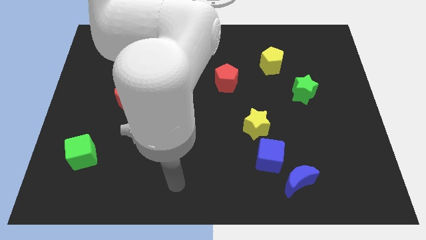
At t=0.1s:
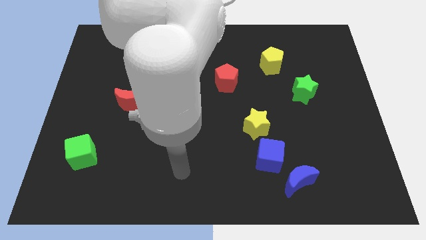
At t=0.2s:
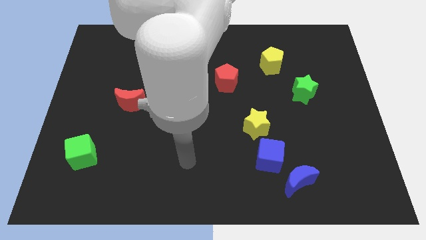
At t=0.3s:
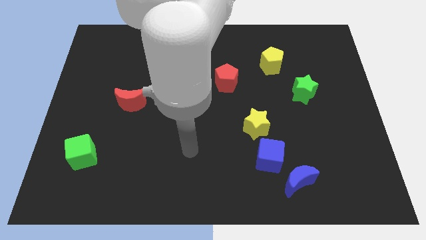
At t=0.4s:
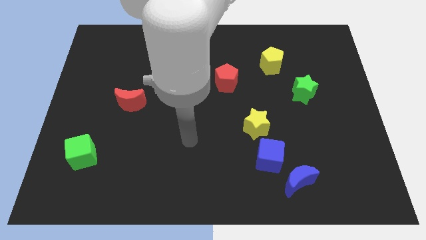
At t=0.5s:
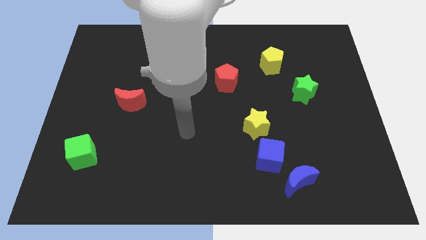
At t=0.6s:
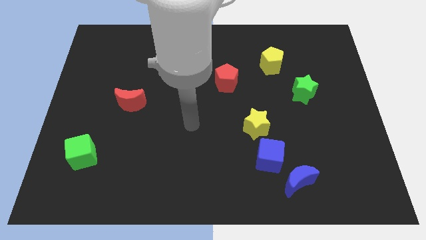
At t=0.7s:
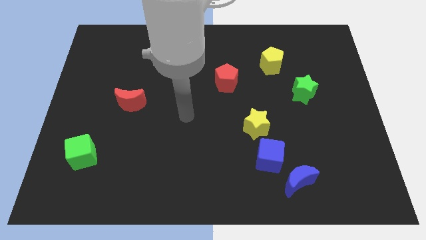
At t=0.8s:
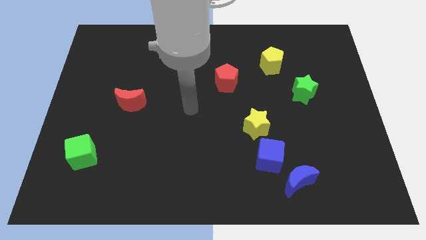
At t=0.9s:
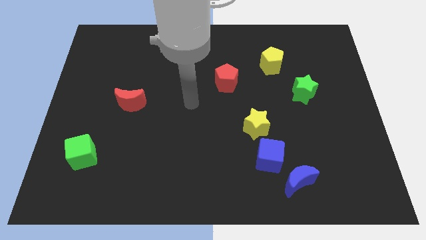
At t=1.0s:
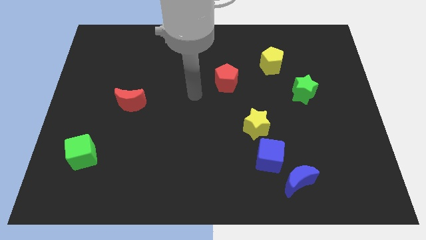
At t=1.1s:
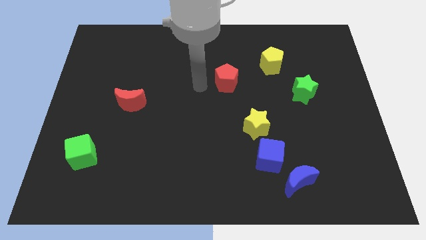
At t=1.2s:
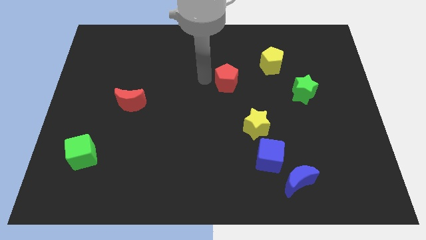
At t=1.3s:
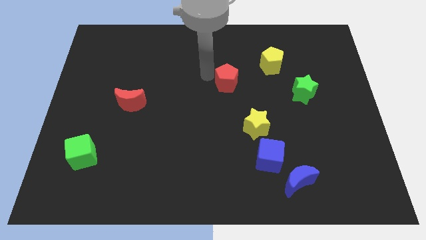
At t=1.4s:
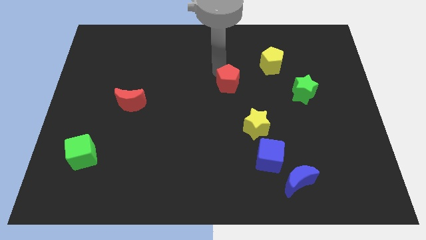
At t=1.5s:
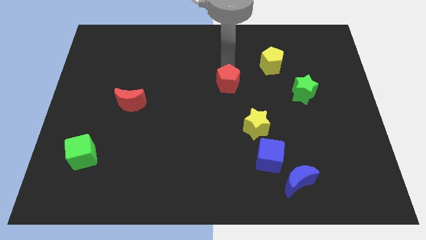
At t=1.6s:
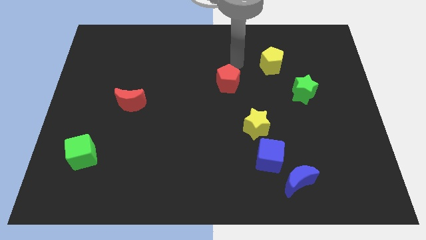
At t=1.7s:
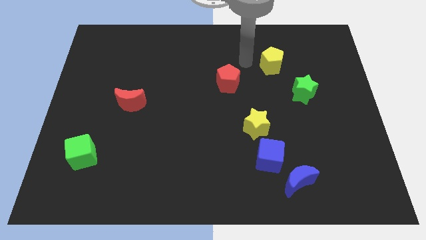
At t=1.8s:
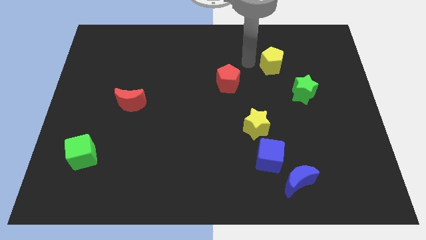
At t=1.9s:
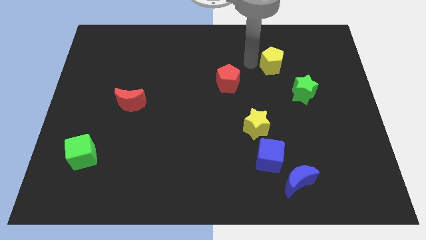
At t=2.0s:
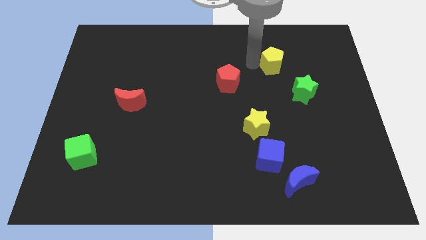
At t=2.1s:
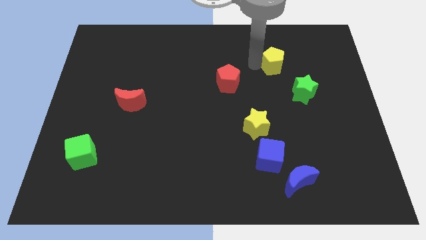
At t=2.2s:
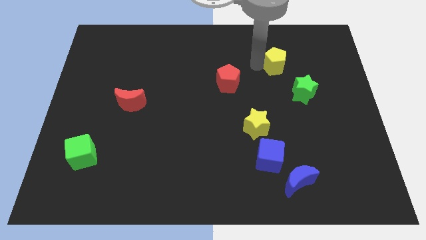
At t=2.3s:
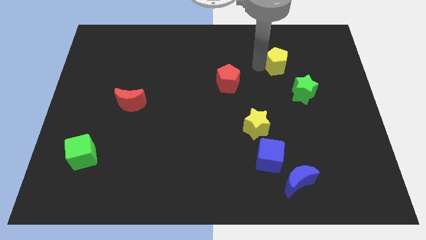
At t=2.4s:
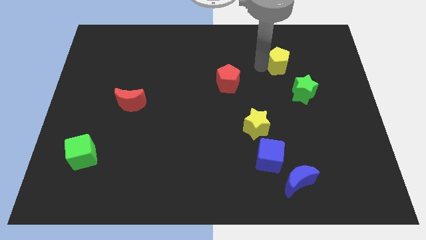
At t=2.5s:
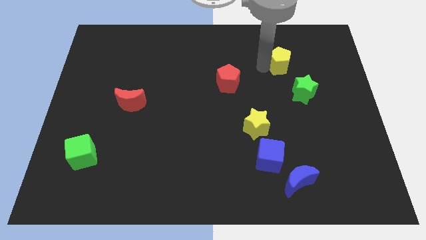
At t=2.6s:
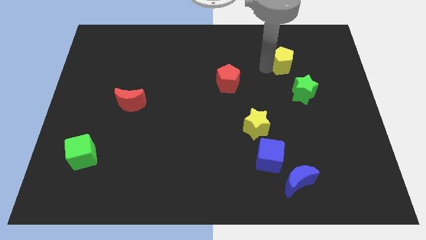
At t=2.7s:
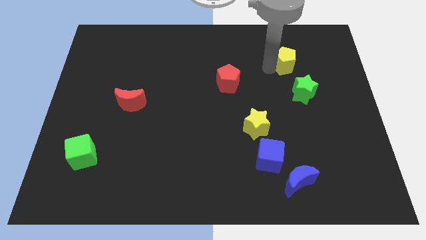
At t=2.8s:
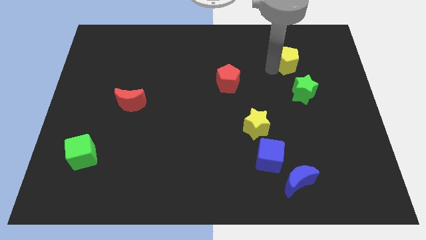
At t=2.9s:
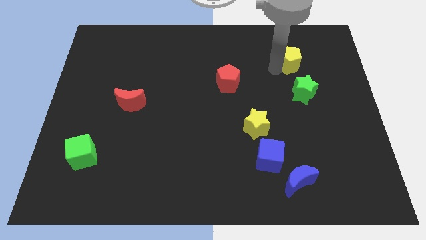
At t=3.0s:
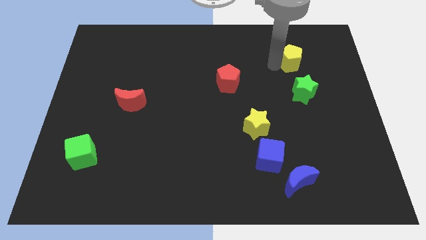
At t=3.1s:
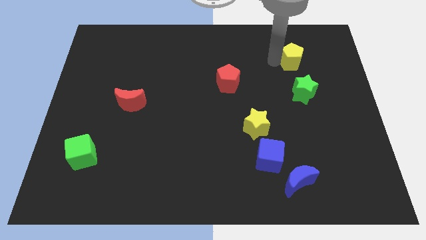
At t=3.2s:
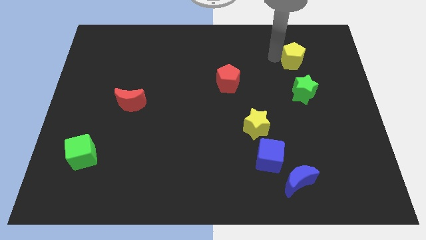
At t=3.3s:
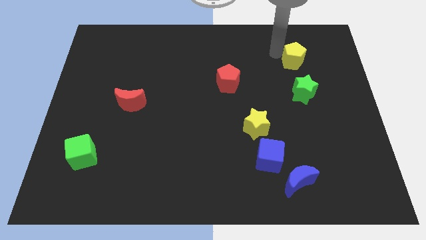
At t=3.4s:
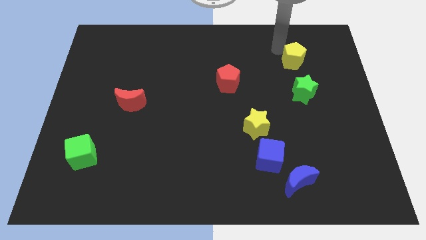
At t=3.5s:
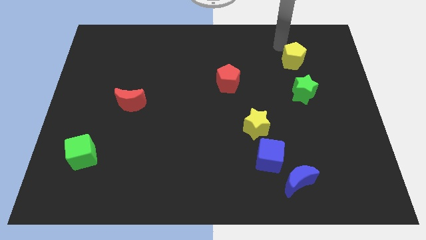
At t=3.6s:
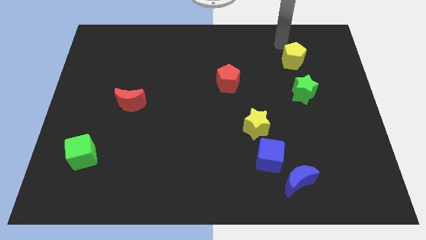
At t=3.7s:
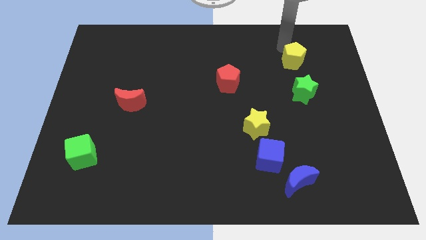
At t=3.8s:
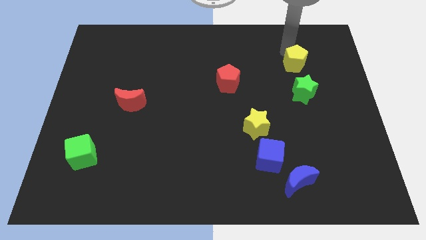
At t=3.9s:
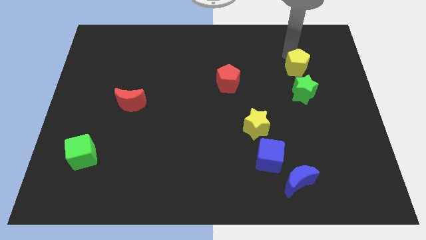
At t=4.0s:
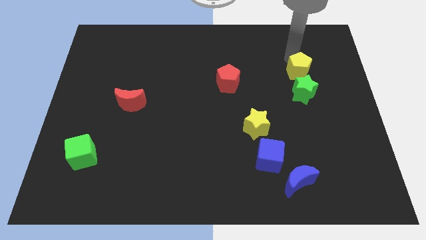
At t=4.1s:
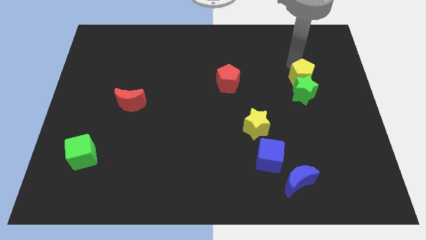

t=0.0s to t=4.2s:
move the yellow pentagon somewhat down and then right

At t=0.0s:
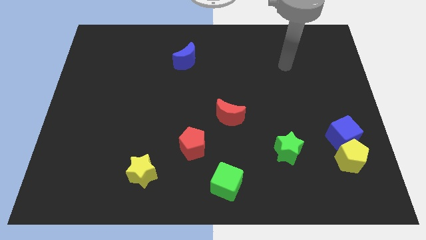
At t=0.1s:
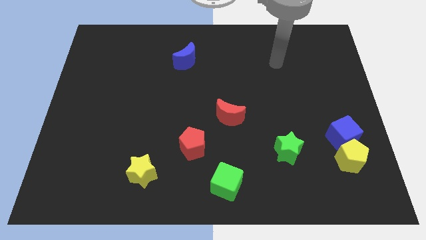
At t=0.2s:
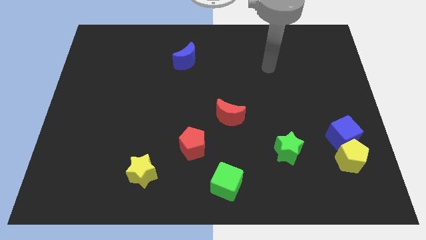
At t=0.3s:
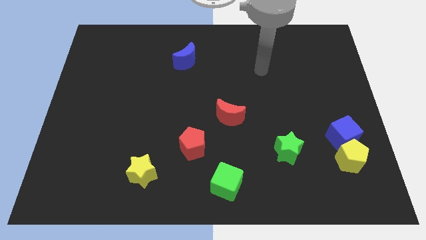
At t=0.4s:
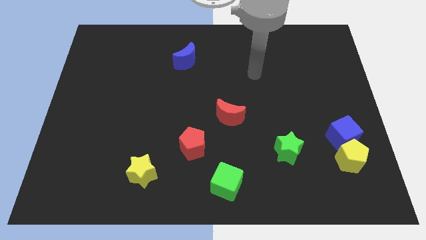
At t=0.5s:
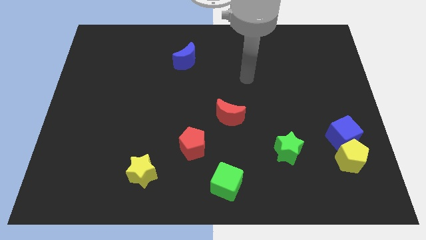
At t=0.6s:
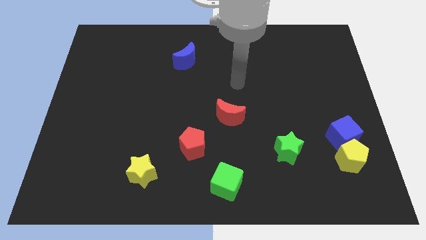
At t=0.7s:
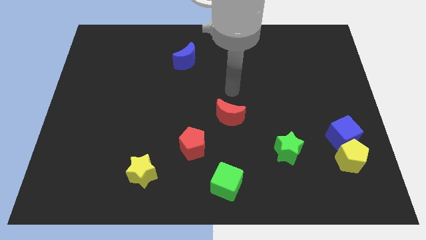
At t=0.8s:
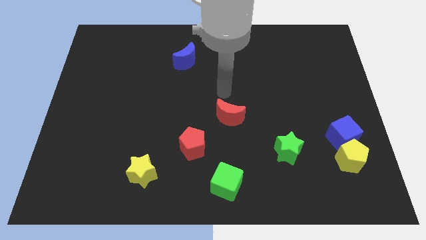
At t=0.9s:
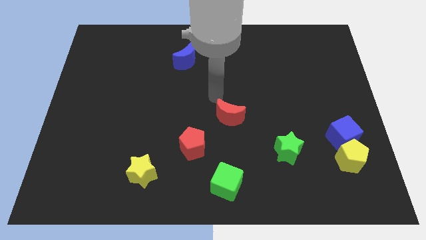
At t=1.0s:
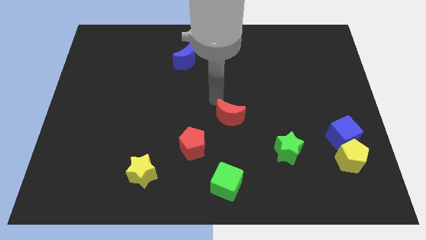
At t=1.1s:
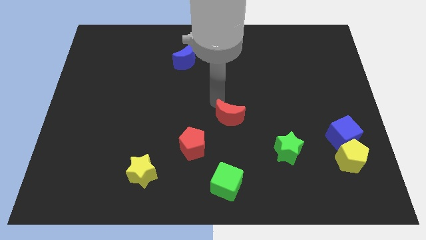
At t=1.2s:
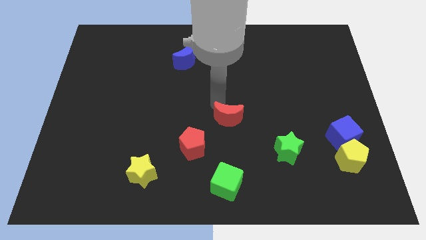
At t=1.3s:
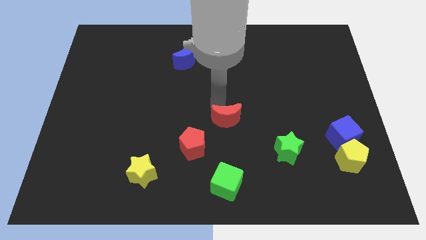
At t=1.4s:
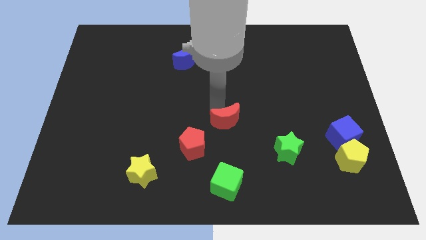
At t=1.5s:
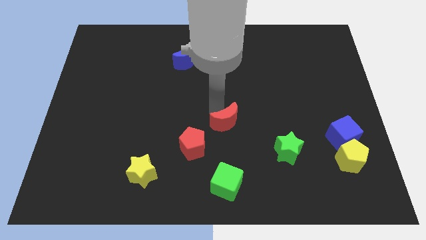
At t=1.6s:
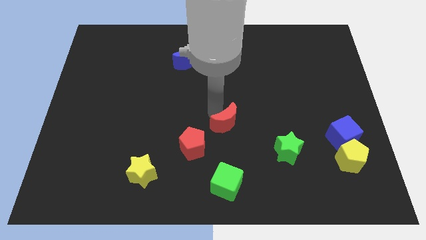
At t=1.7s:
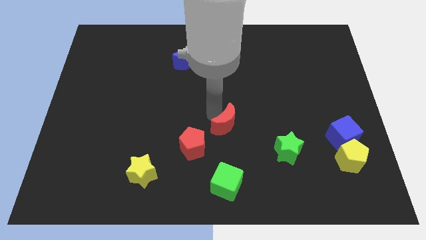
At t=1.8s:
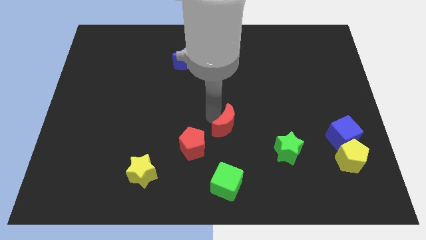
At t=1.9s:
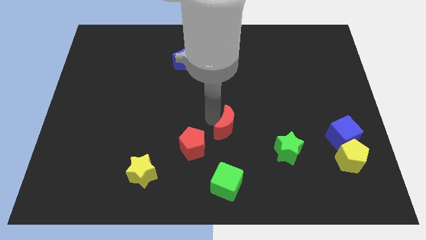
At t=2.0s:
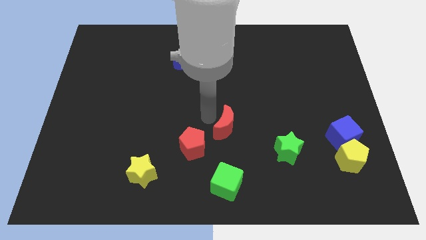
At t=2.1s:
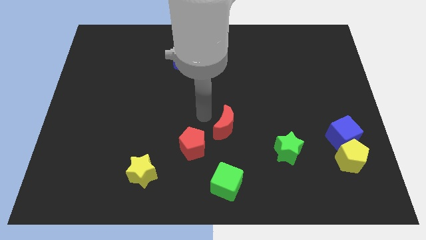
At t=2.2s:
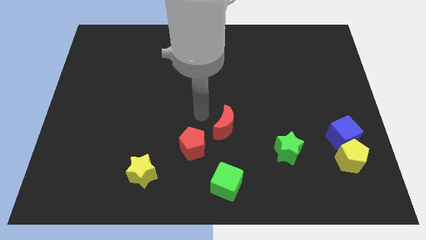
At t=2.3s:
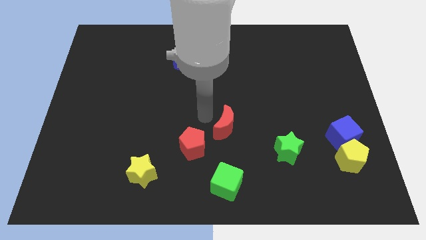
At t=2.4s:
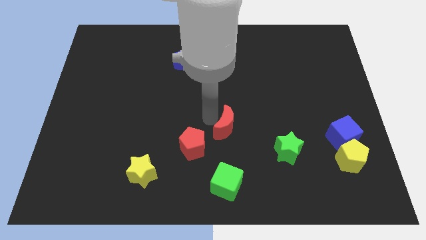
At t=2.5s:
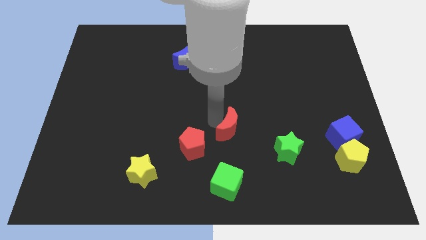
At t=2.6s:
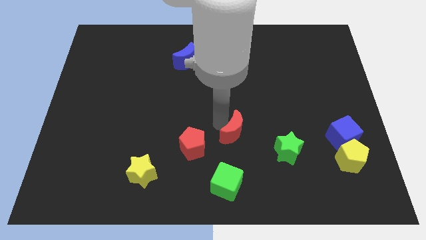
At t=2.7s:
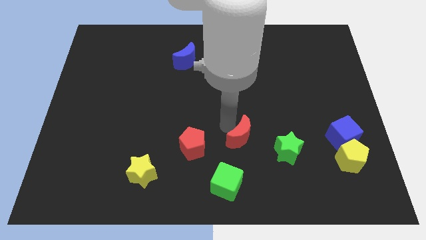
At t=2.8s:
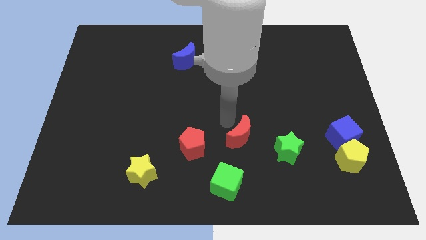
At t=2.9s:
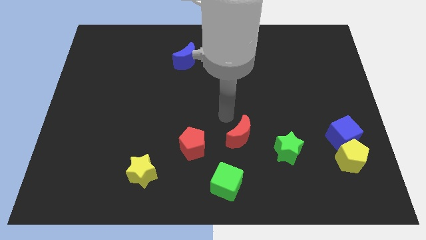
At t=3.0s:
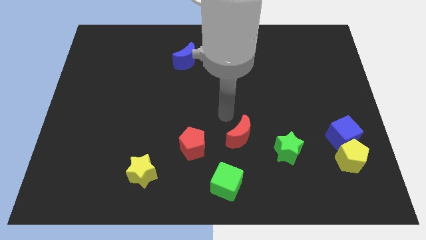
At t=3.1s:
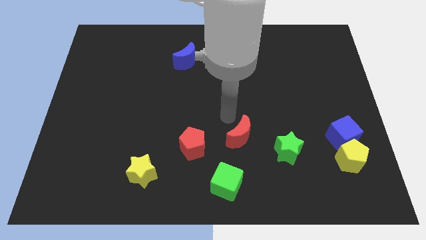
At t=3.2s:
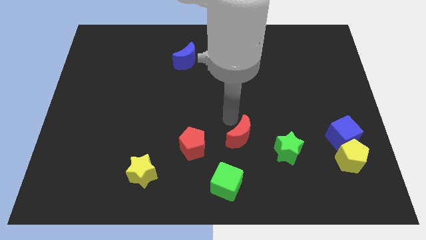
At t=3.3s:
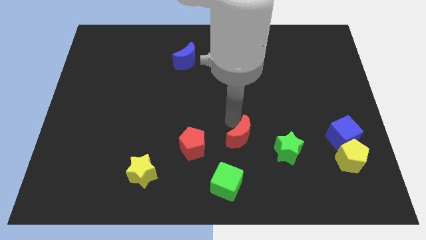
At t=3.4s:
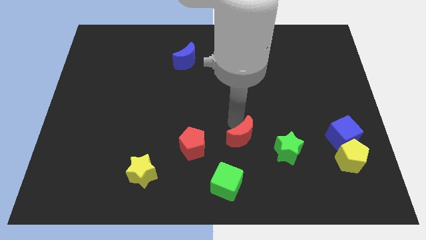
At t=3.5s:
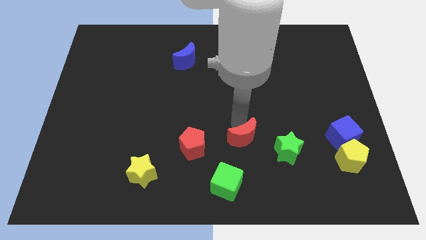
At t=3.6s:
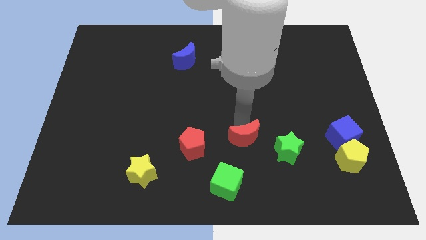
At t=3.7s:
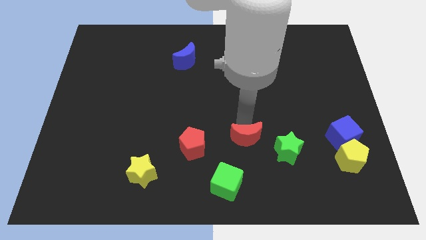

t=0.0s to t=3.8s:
slightly slide the red moon downwards and right

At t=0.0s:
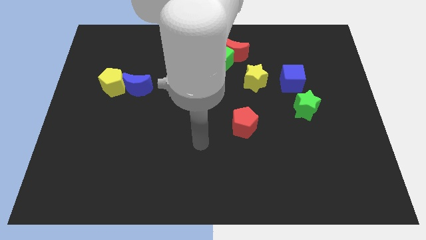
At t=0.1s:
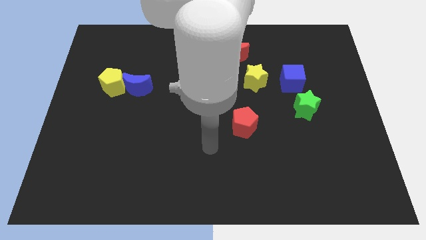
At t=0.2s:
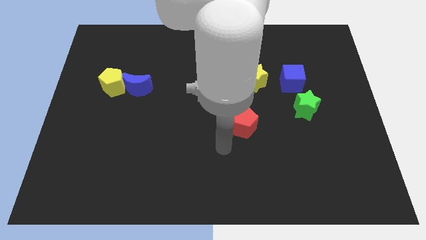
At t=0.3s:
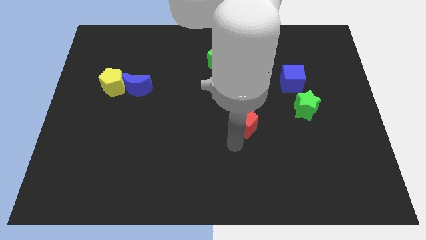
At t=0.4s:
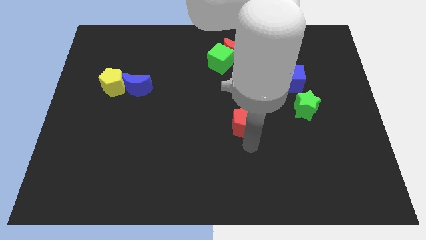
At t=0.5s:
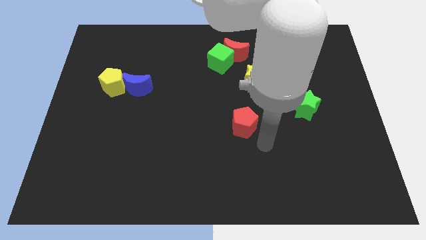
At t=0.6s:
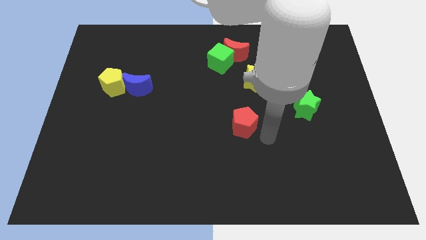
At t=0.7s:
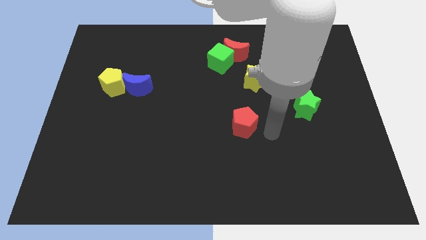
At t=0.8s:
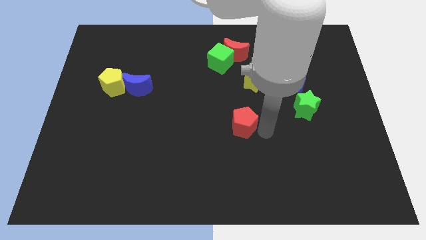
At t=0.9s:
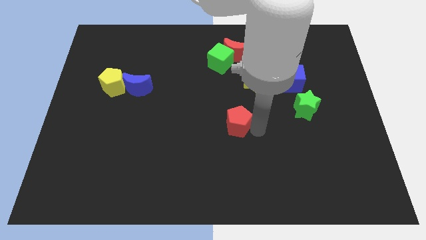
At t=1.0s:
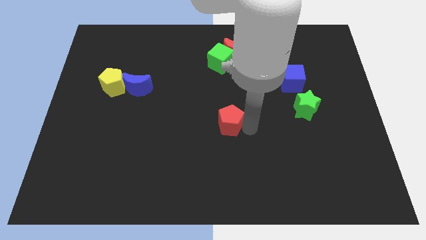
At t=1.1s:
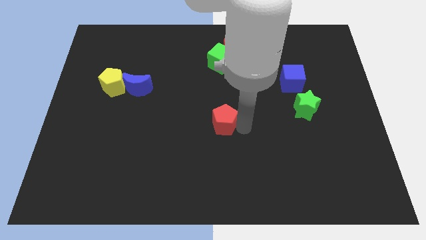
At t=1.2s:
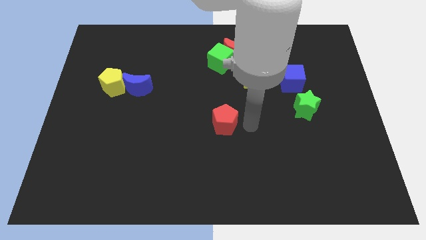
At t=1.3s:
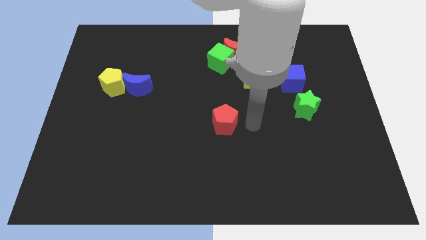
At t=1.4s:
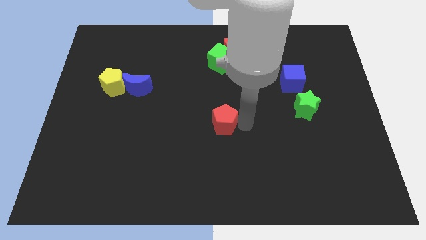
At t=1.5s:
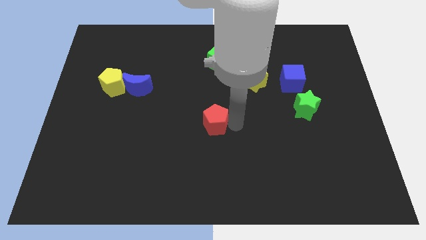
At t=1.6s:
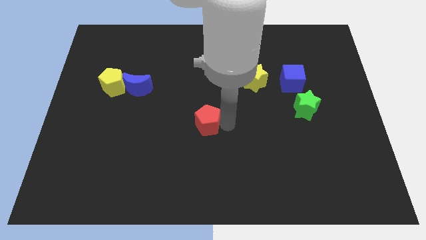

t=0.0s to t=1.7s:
slide the red pentagon left slightly
